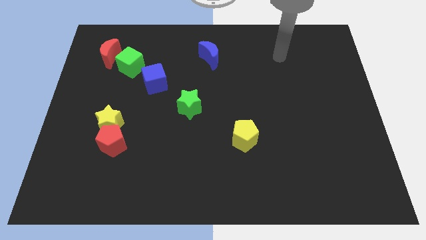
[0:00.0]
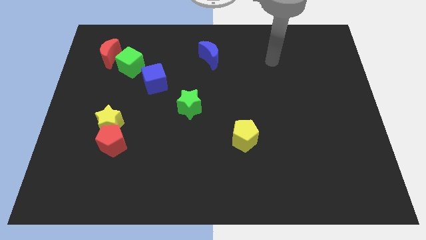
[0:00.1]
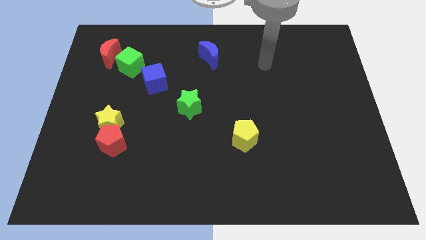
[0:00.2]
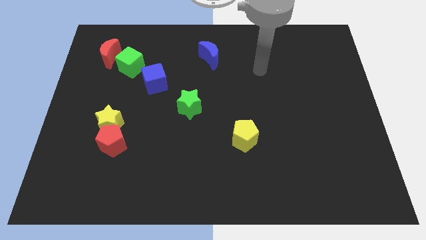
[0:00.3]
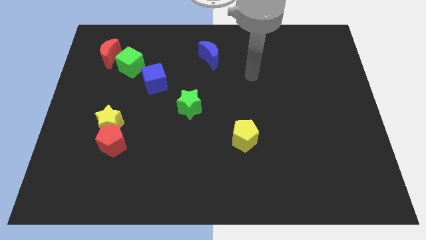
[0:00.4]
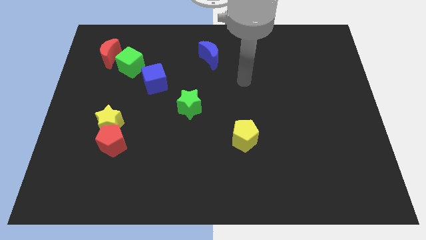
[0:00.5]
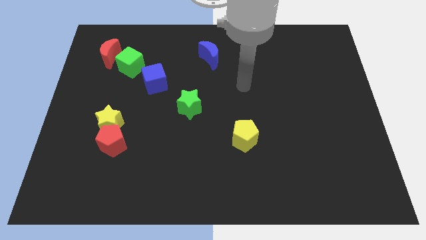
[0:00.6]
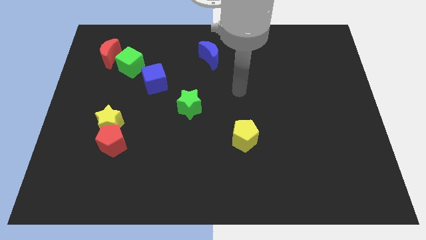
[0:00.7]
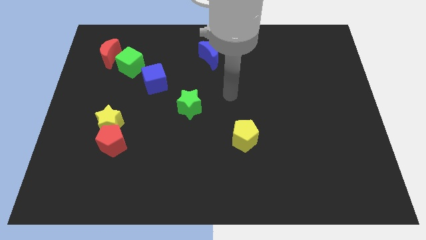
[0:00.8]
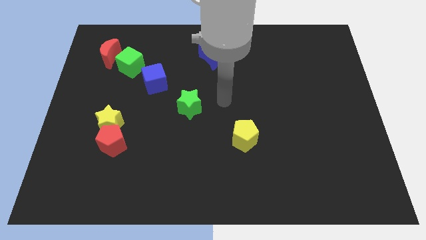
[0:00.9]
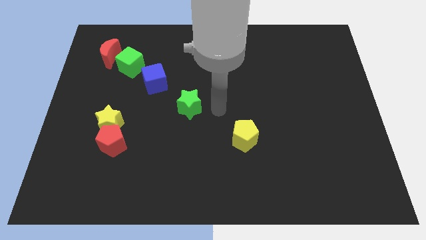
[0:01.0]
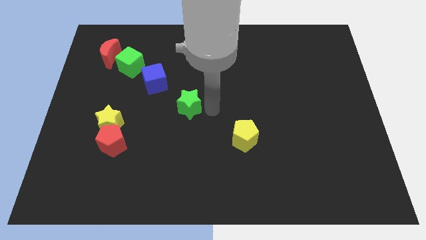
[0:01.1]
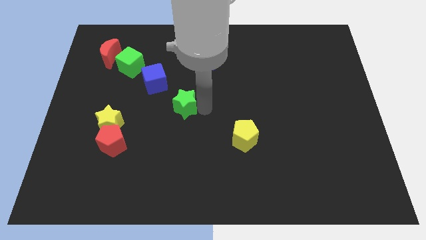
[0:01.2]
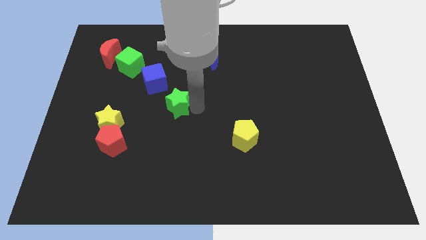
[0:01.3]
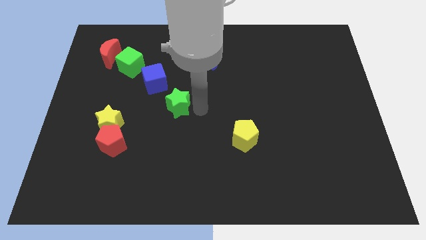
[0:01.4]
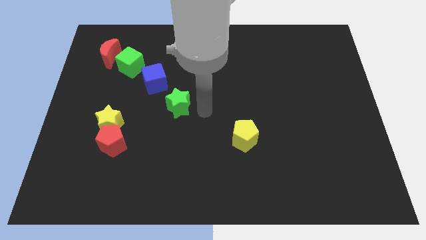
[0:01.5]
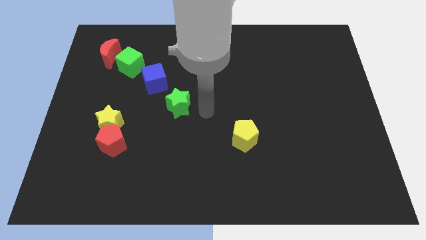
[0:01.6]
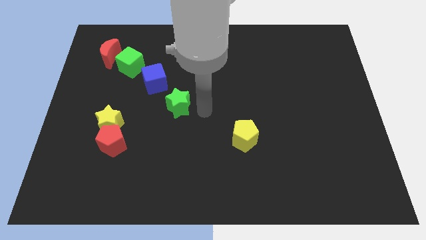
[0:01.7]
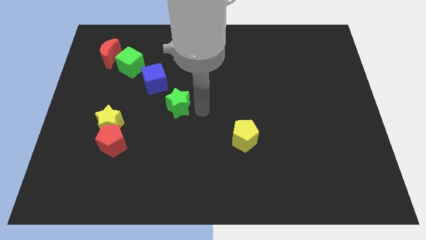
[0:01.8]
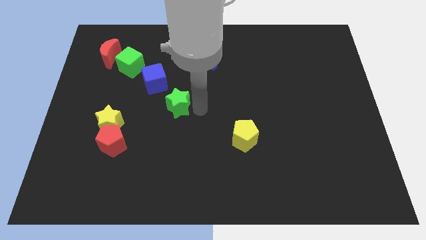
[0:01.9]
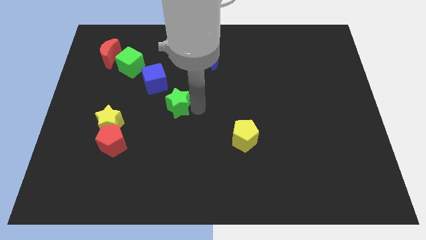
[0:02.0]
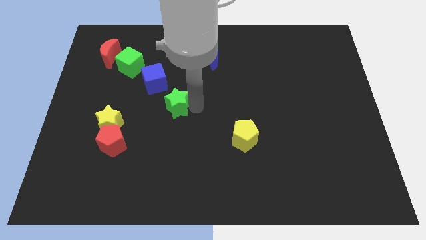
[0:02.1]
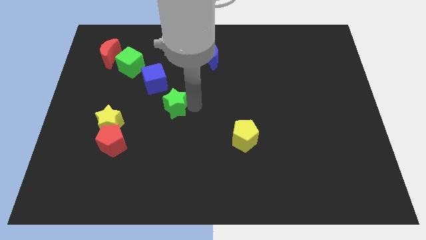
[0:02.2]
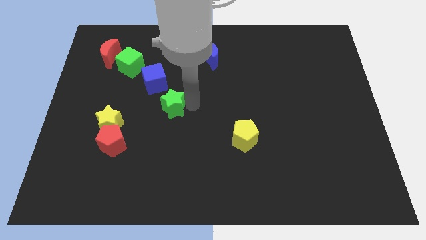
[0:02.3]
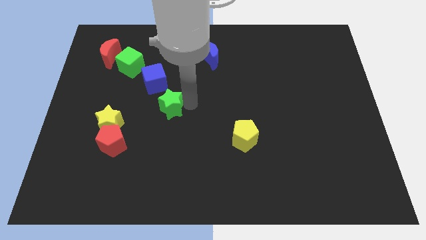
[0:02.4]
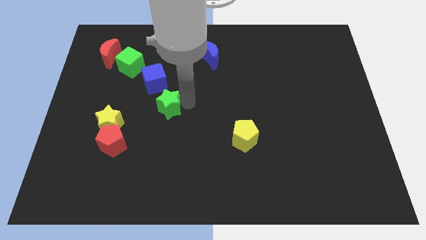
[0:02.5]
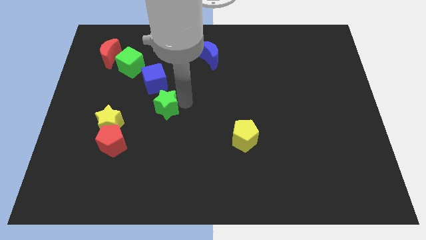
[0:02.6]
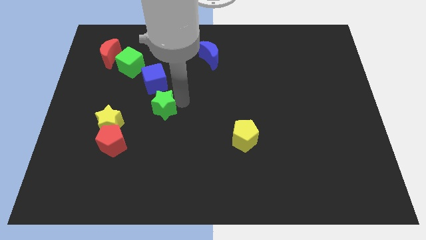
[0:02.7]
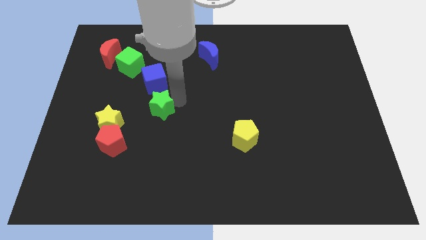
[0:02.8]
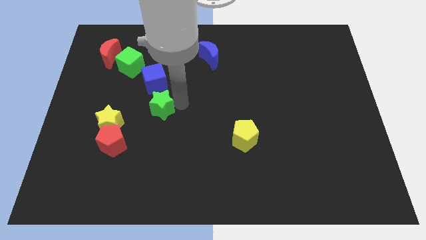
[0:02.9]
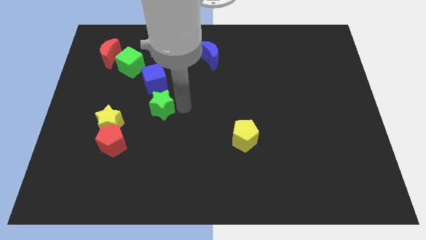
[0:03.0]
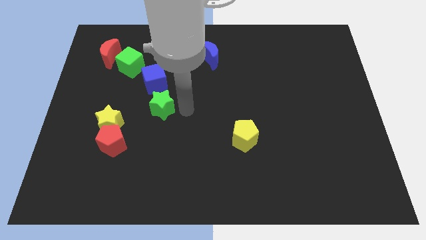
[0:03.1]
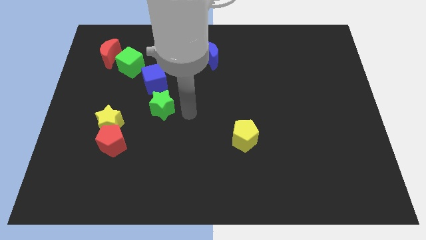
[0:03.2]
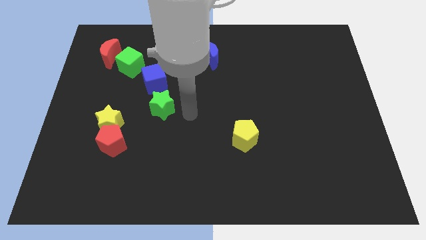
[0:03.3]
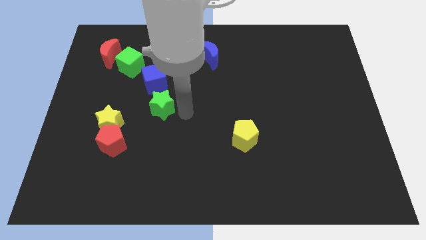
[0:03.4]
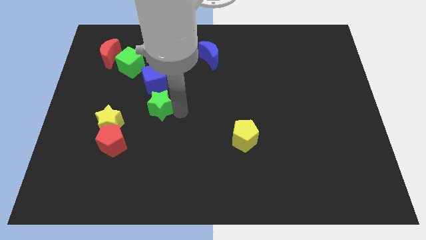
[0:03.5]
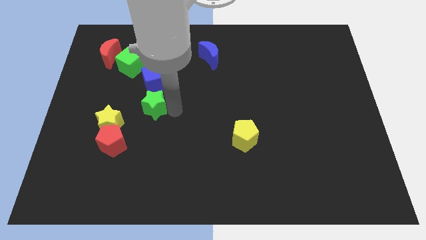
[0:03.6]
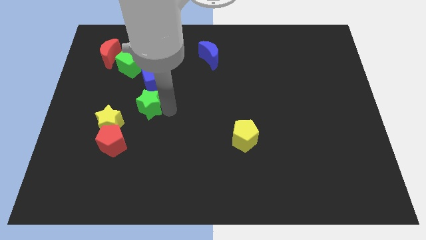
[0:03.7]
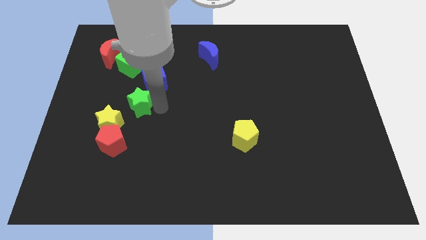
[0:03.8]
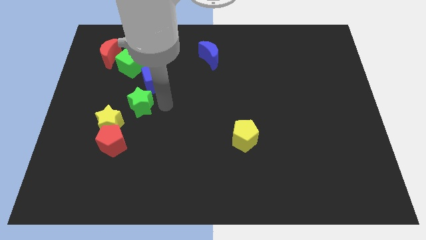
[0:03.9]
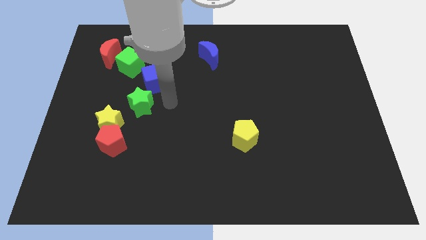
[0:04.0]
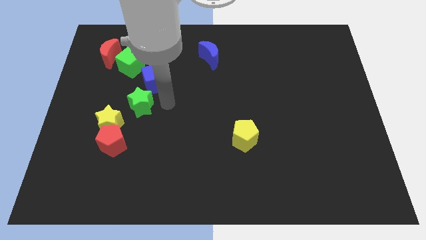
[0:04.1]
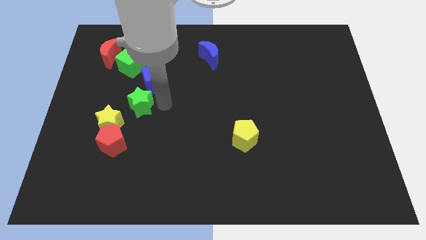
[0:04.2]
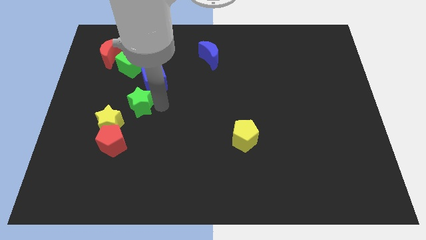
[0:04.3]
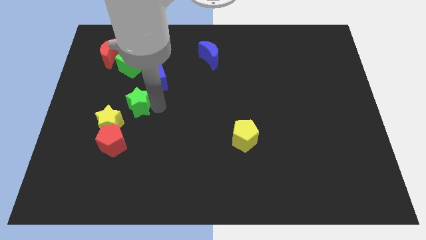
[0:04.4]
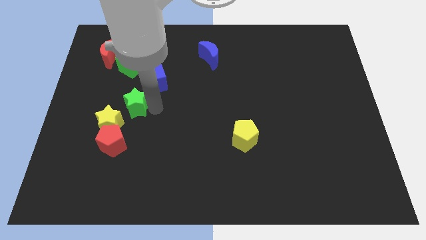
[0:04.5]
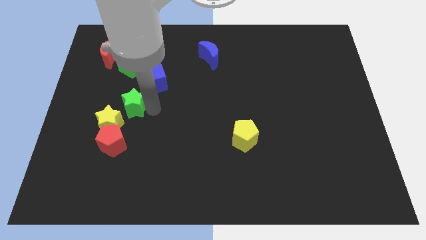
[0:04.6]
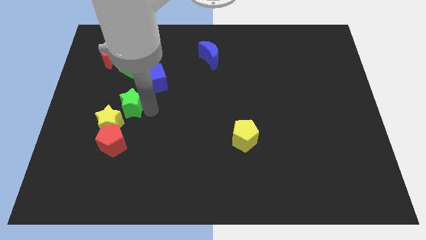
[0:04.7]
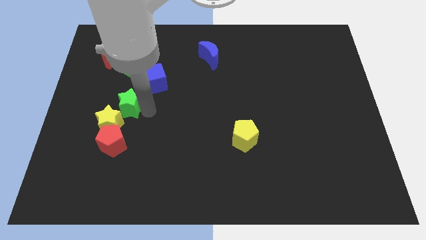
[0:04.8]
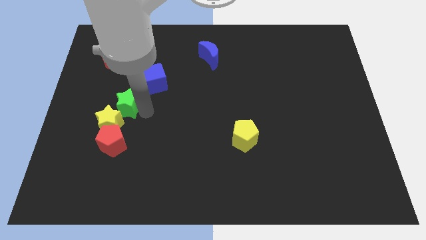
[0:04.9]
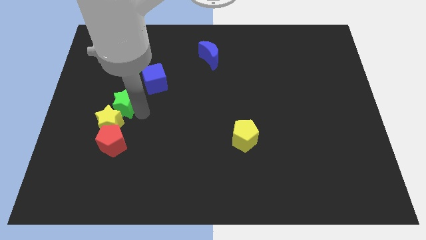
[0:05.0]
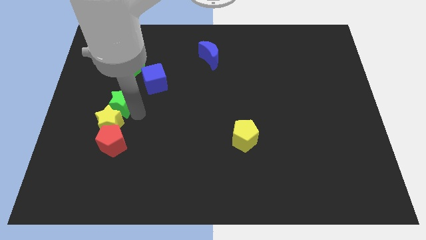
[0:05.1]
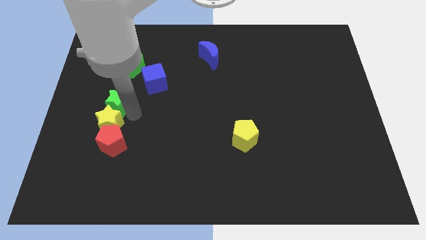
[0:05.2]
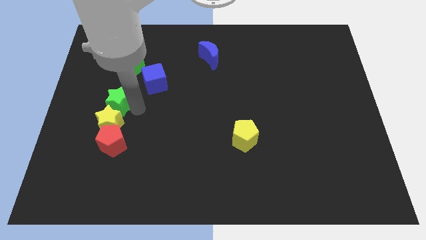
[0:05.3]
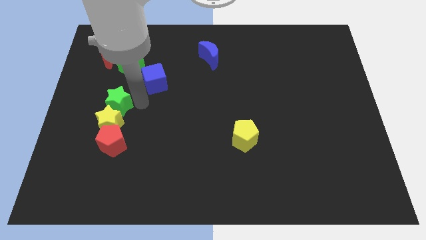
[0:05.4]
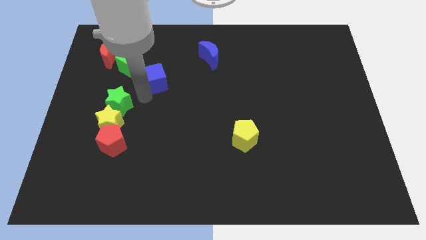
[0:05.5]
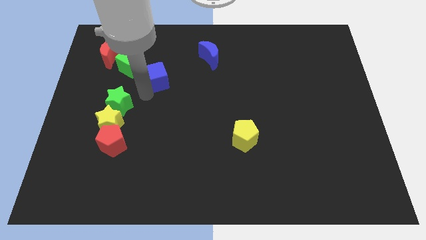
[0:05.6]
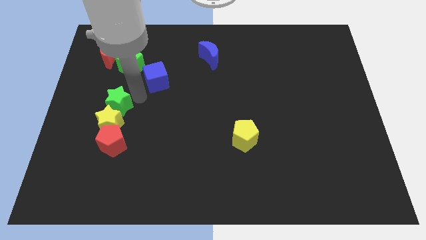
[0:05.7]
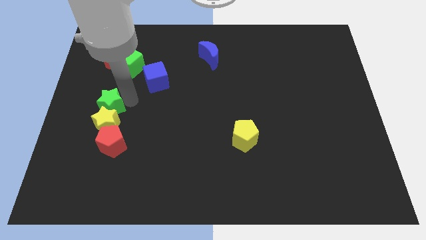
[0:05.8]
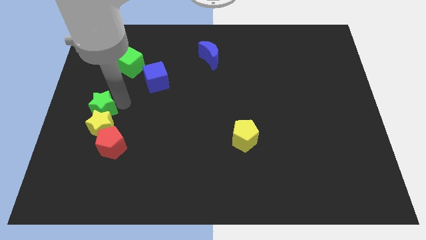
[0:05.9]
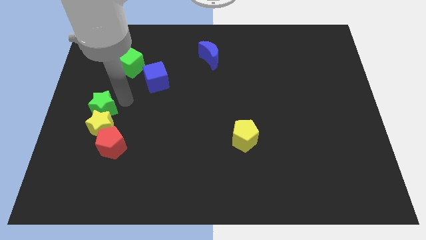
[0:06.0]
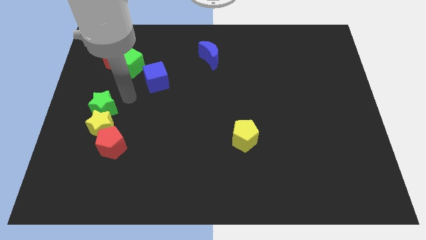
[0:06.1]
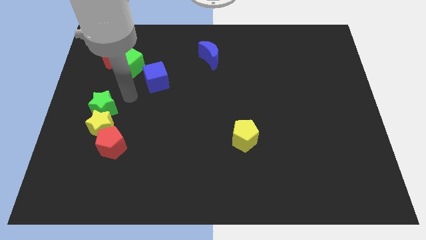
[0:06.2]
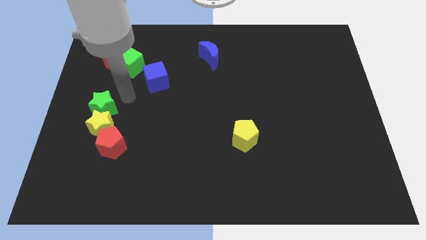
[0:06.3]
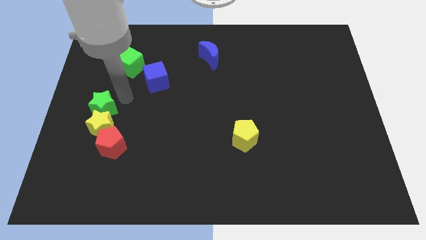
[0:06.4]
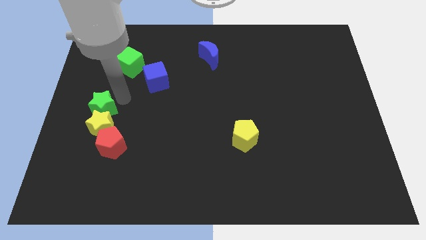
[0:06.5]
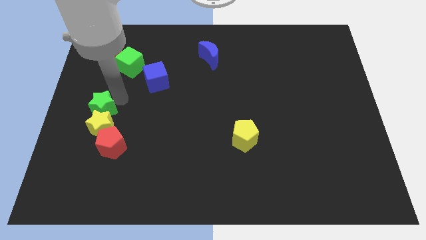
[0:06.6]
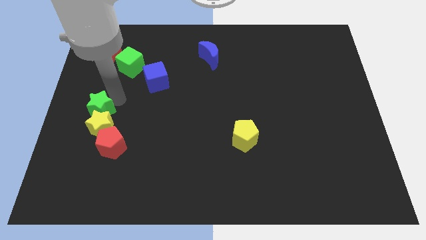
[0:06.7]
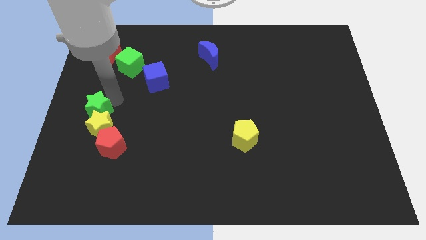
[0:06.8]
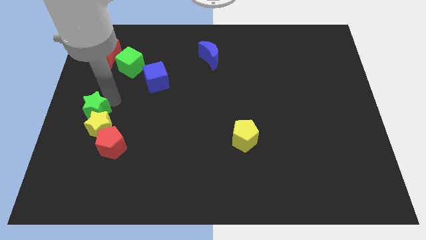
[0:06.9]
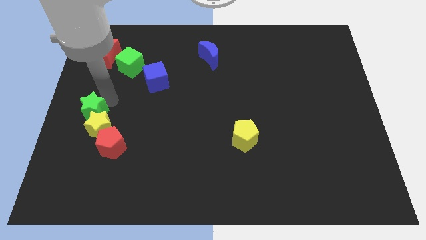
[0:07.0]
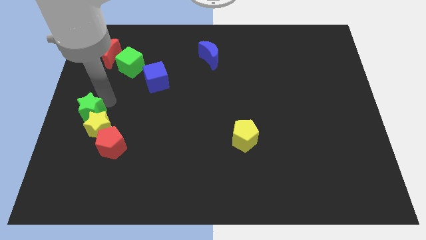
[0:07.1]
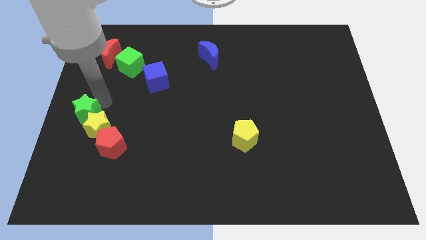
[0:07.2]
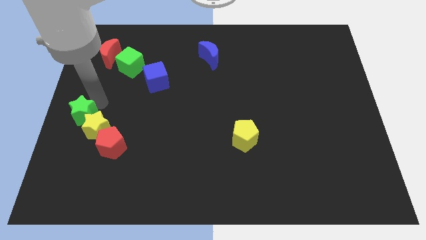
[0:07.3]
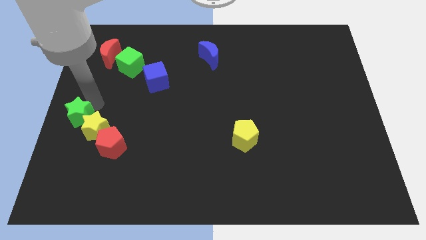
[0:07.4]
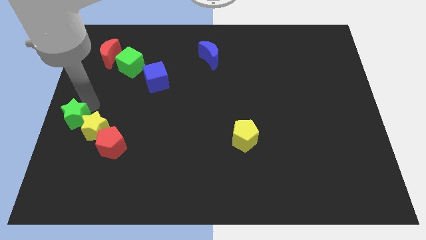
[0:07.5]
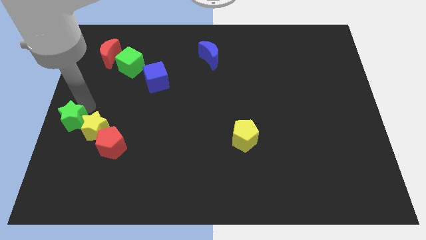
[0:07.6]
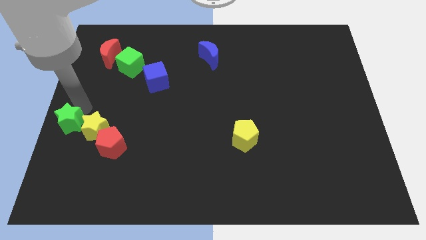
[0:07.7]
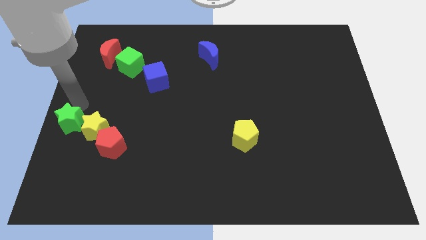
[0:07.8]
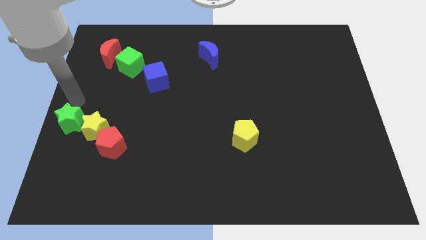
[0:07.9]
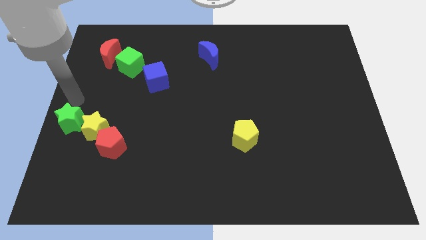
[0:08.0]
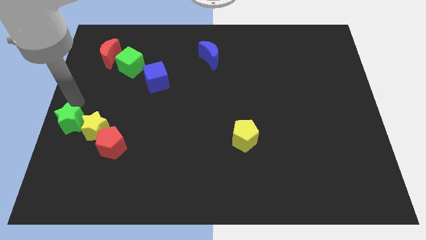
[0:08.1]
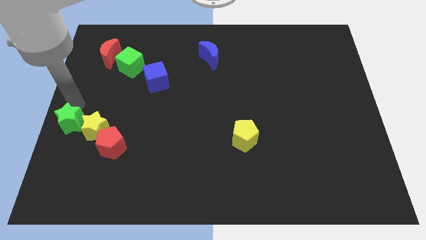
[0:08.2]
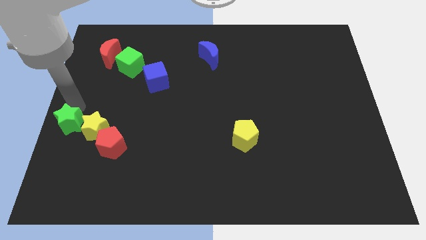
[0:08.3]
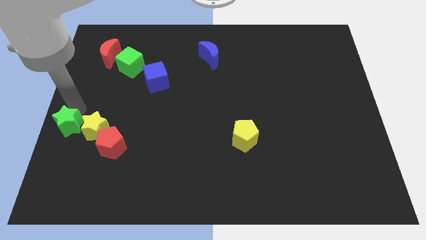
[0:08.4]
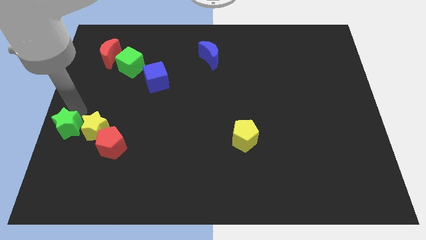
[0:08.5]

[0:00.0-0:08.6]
move the green star to the bottom left side of the yellow star
